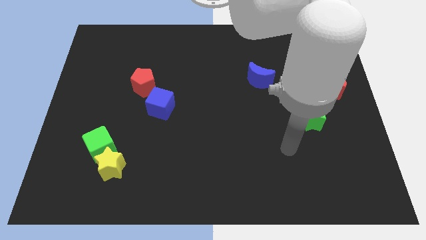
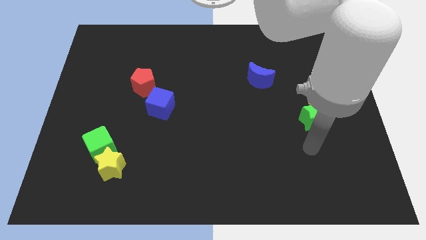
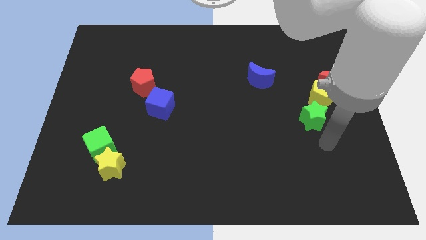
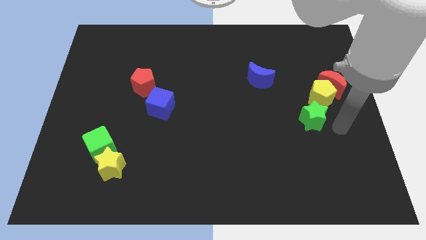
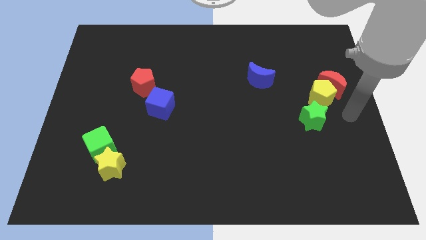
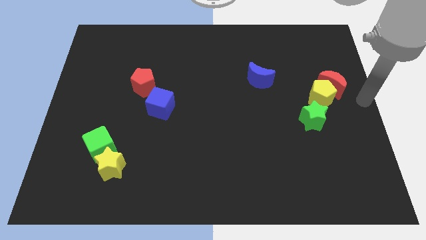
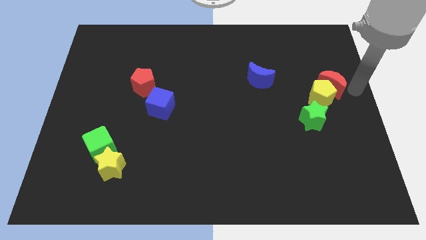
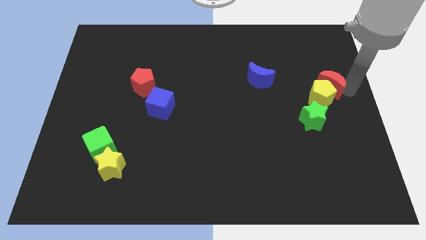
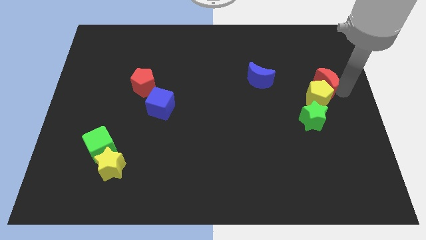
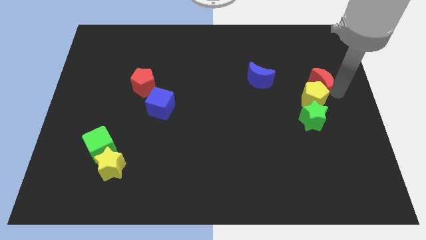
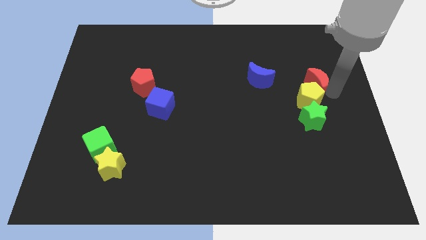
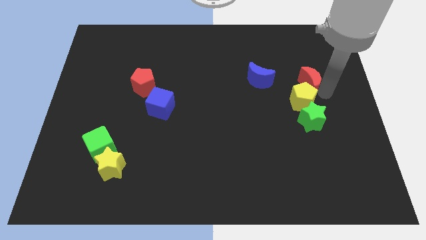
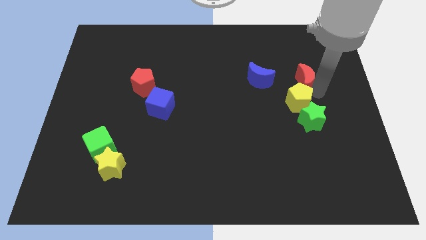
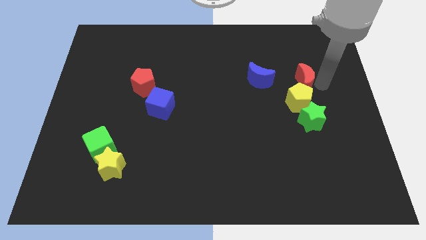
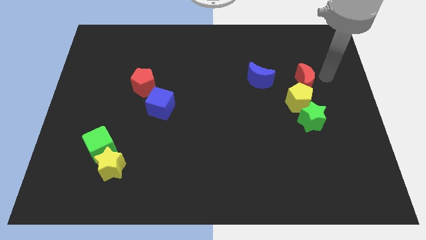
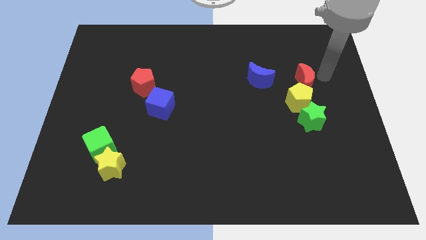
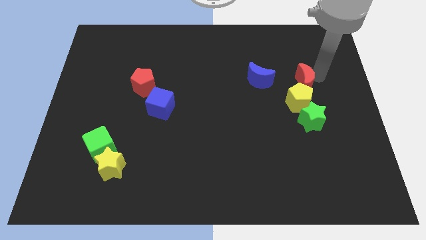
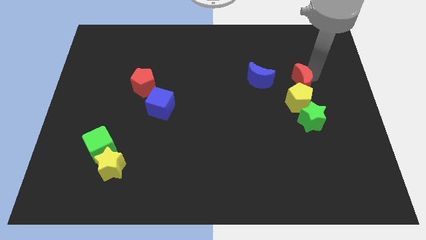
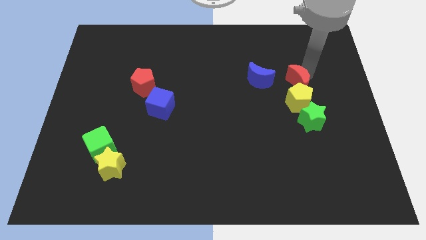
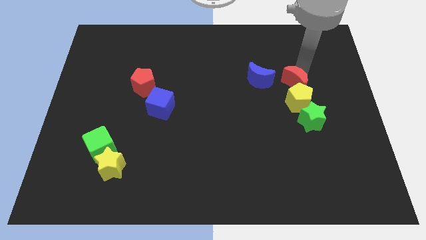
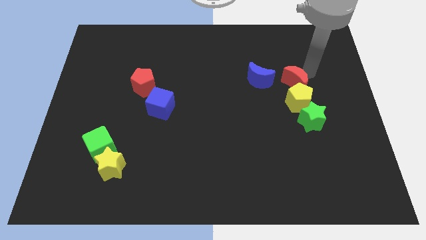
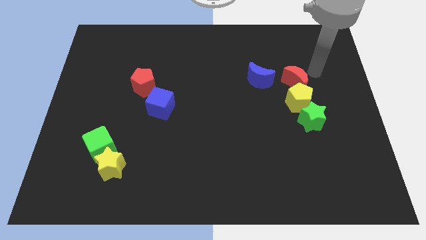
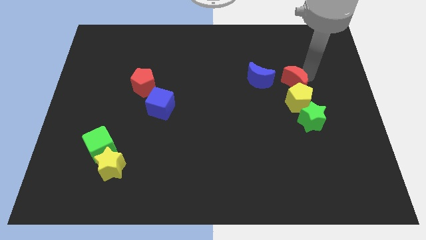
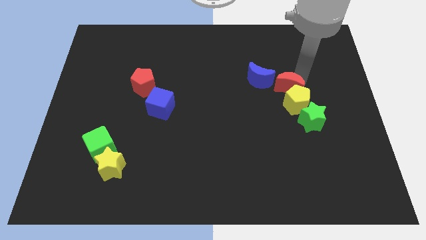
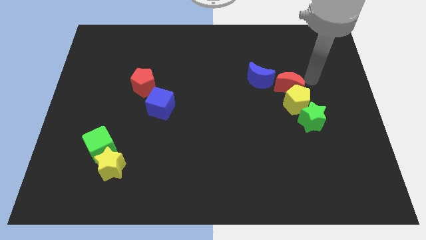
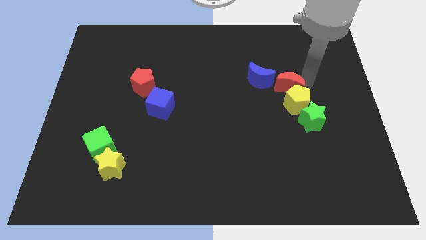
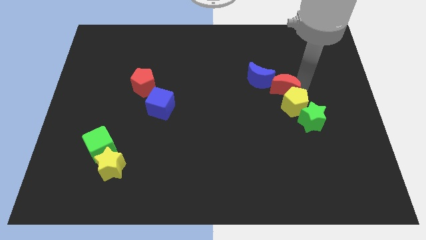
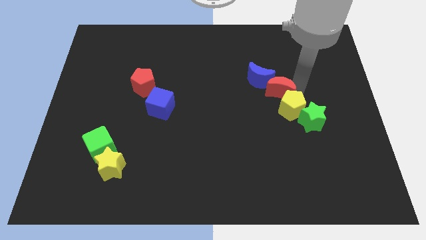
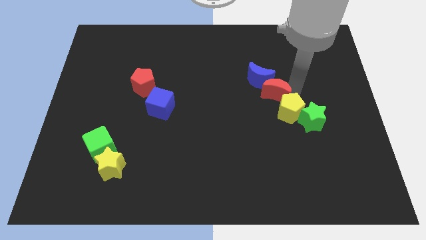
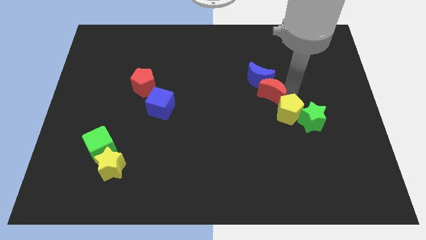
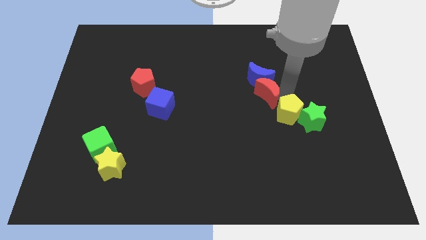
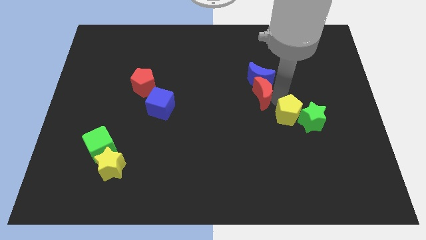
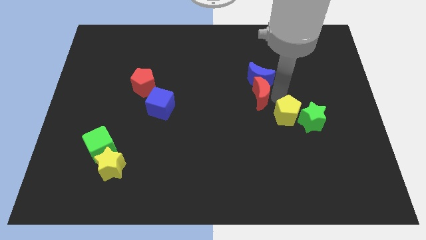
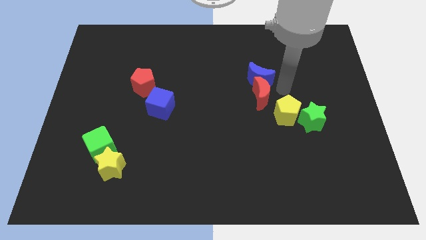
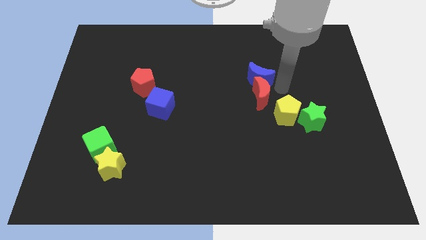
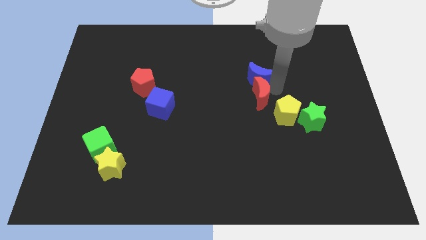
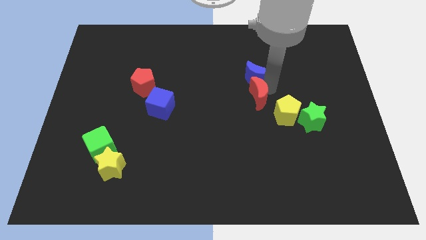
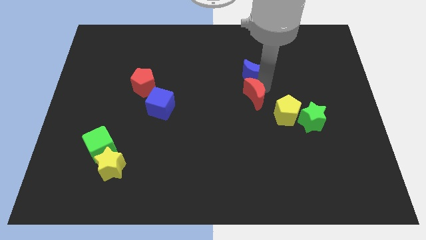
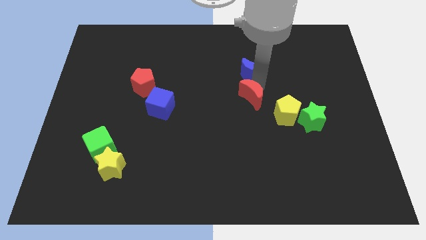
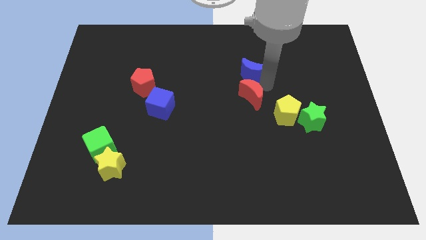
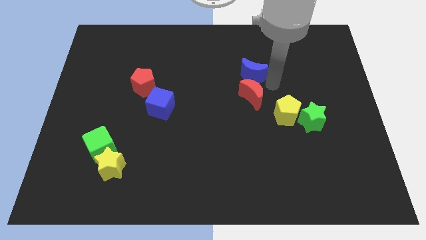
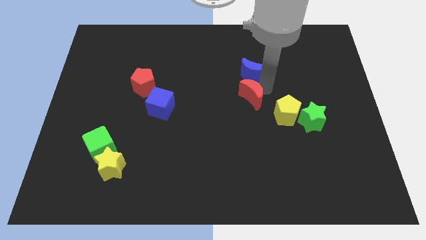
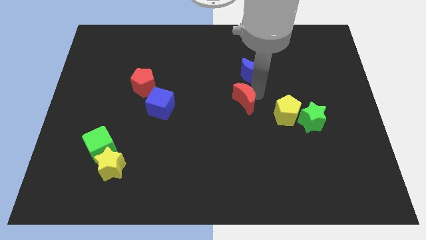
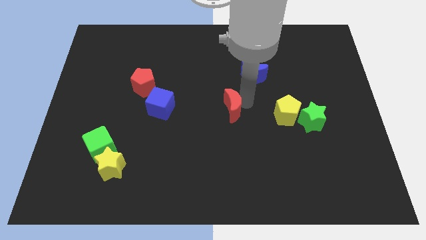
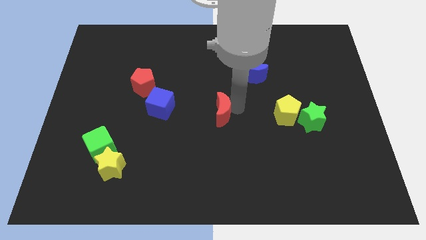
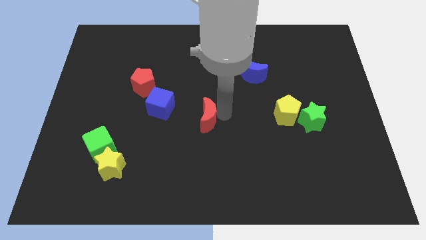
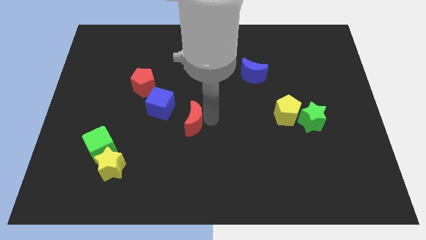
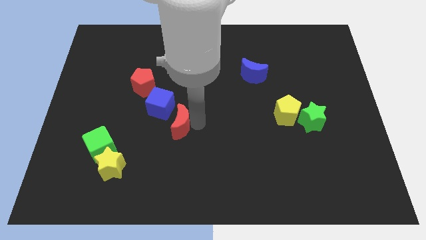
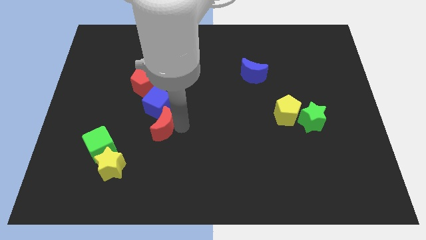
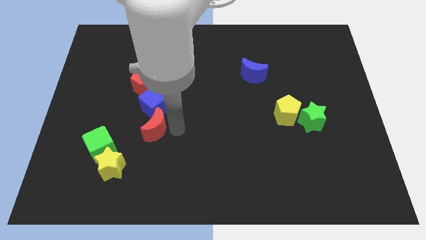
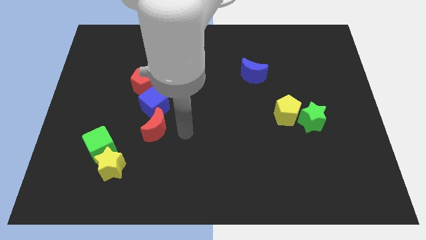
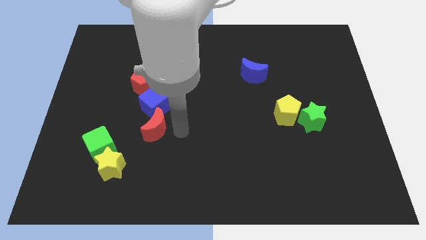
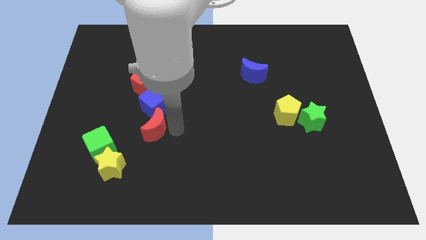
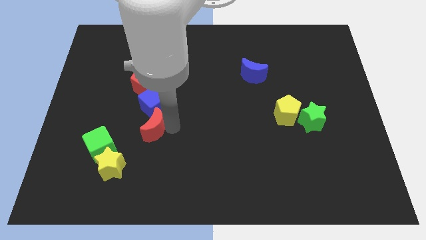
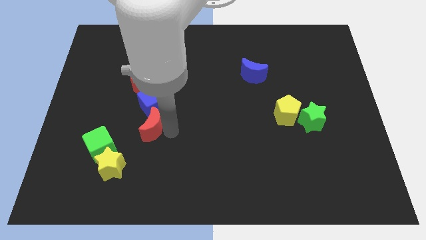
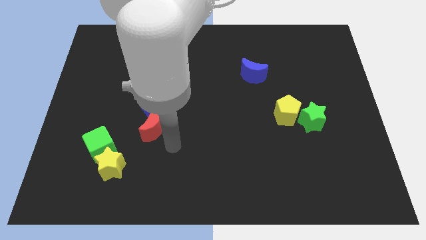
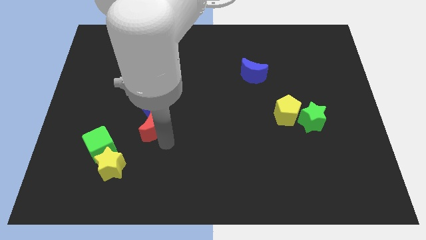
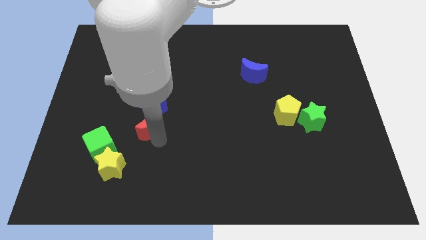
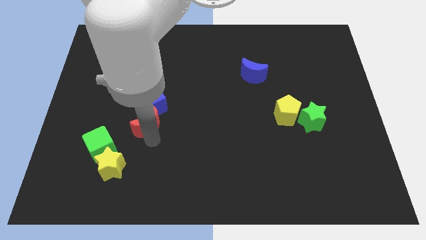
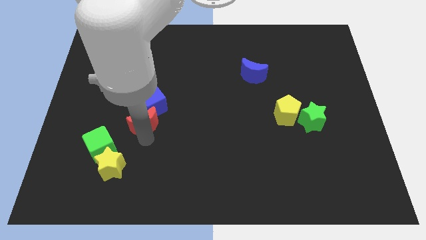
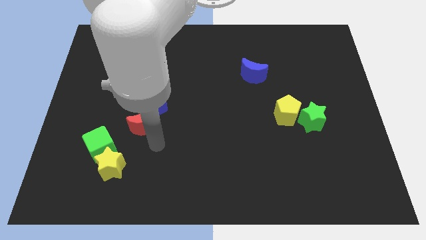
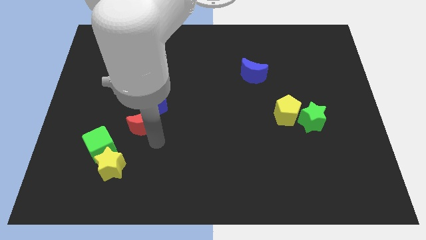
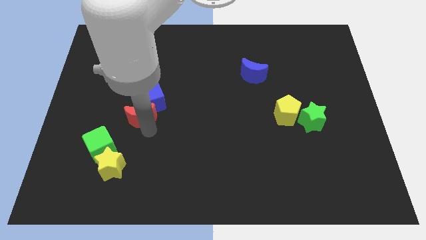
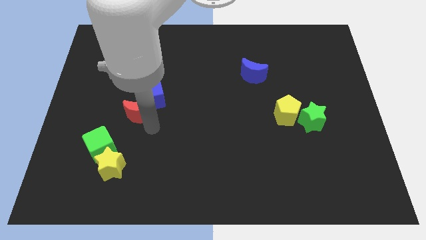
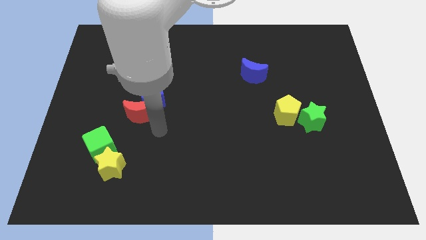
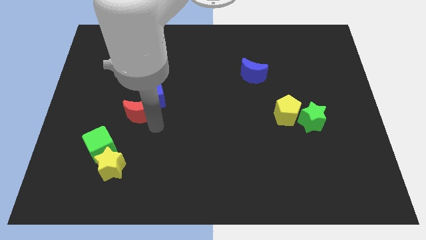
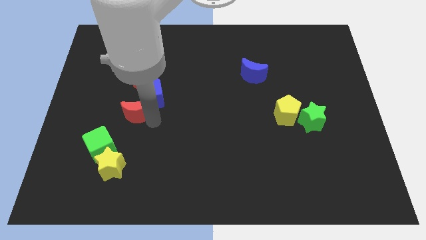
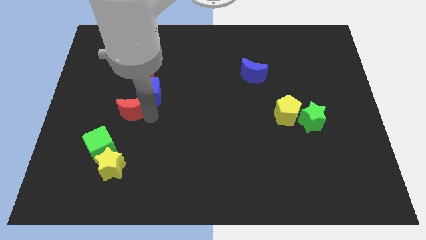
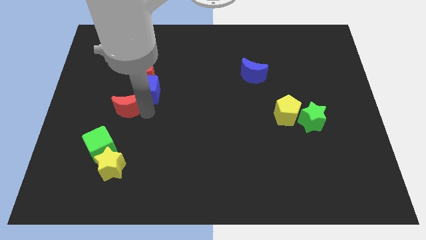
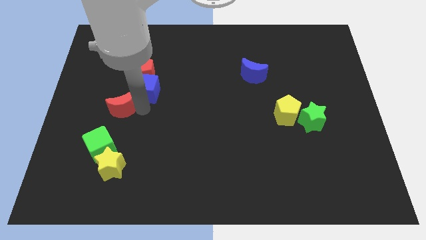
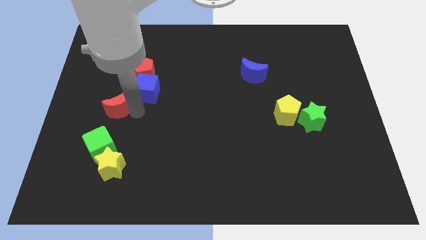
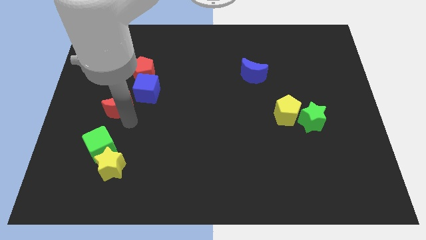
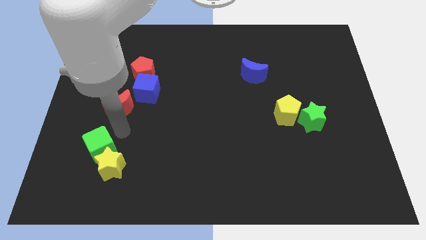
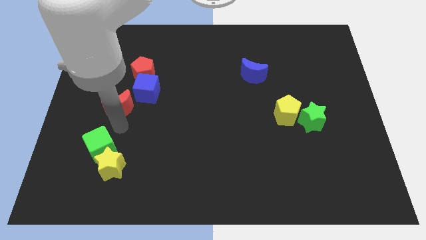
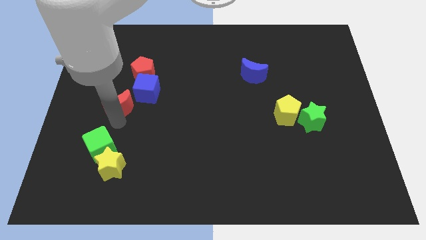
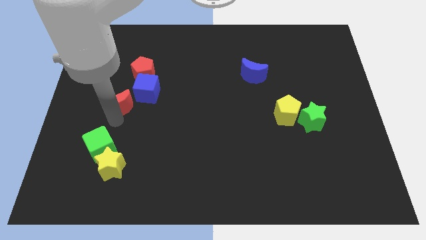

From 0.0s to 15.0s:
put the red moon to the bottom left side of the red pentagon

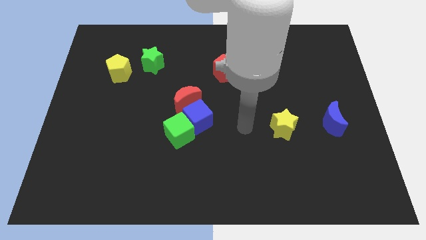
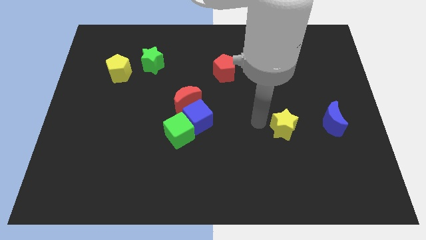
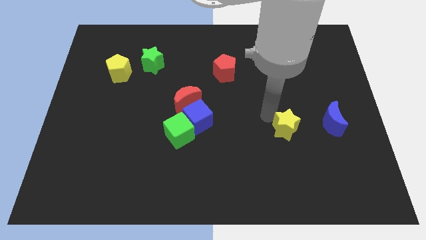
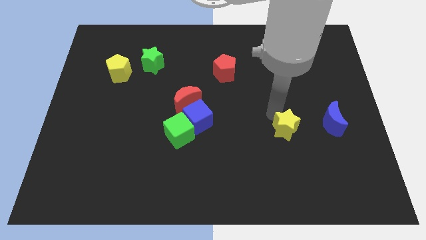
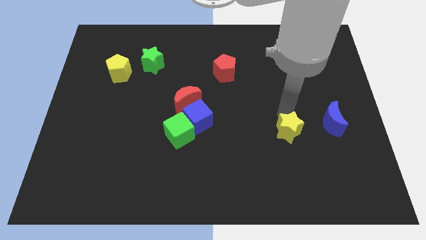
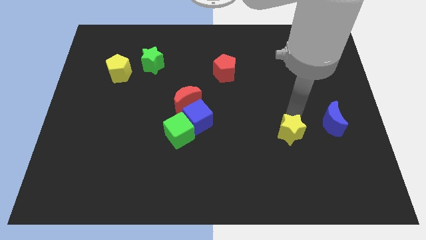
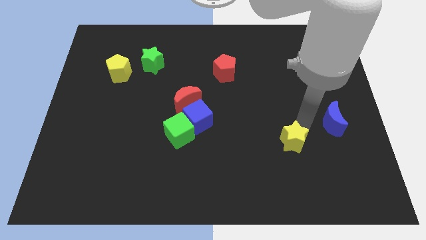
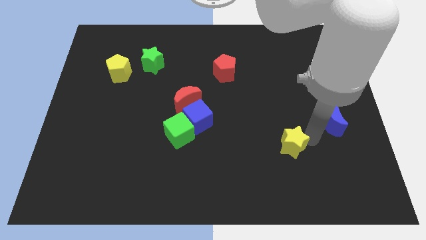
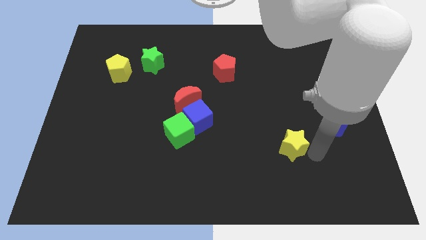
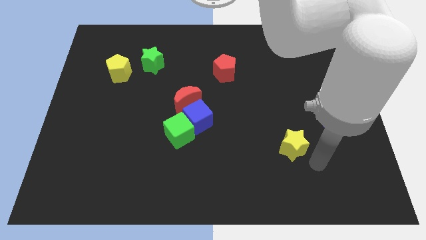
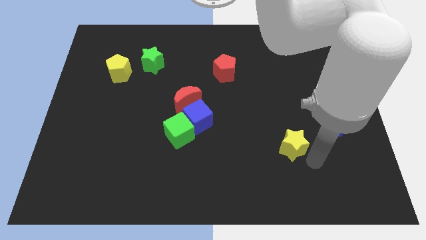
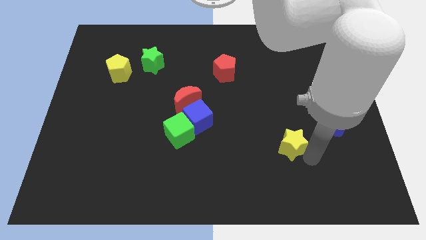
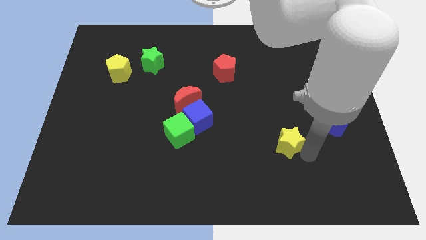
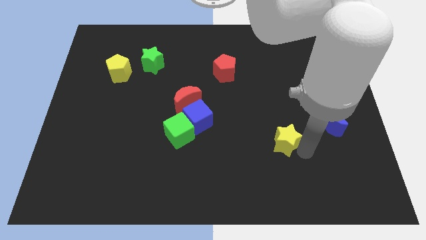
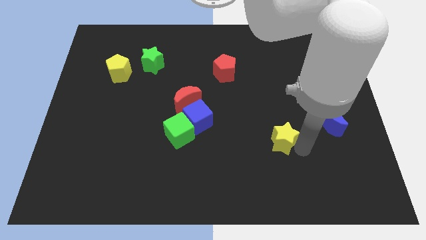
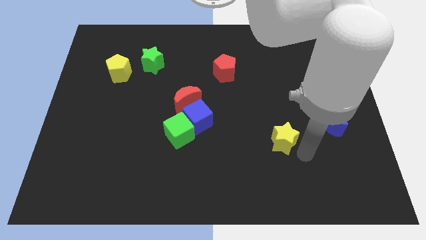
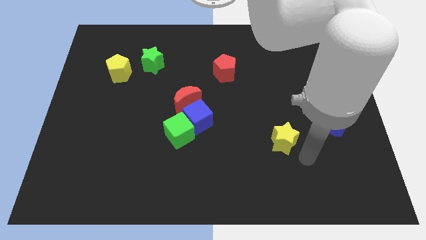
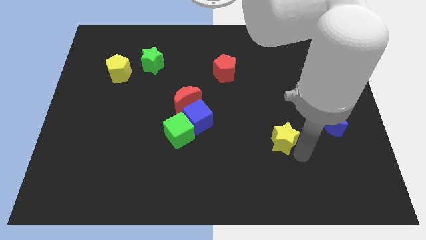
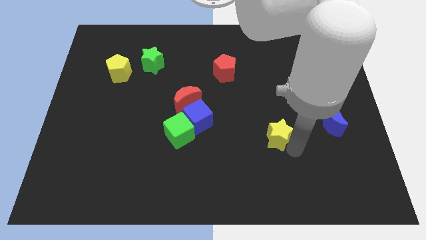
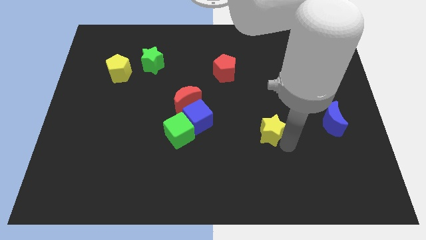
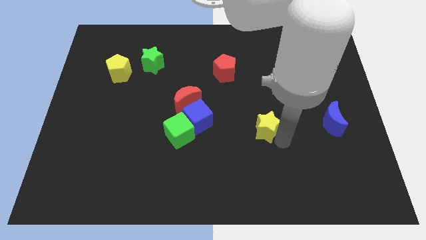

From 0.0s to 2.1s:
slide the yellow star to the right side of the blue cube
